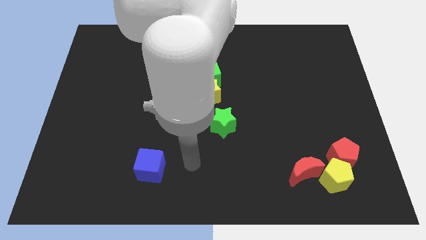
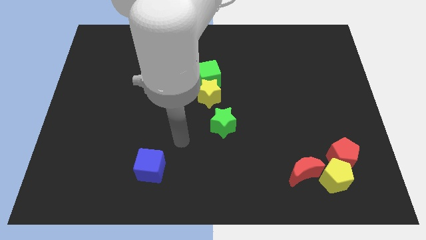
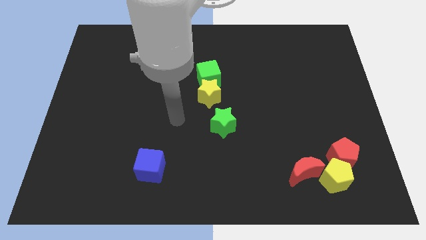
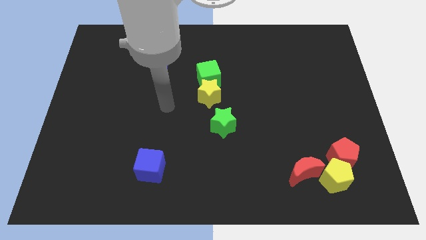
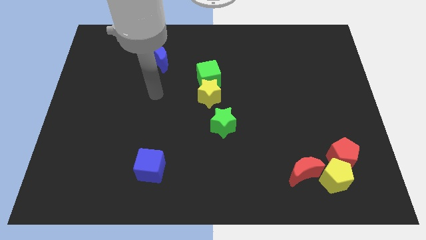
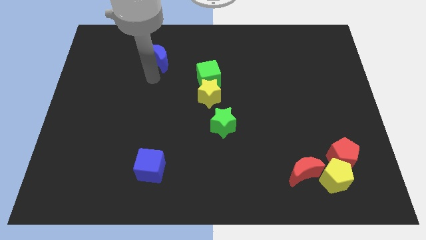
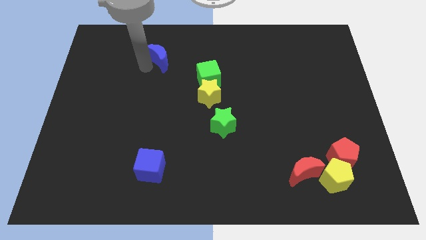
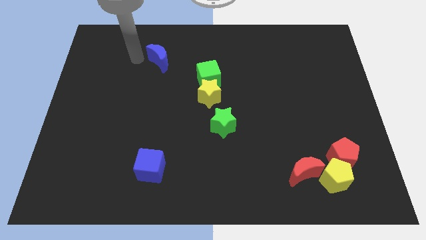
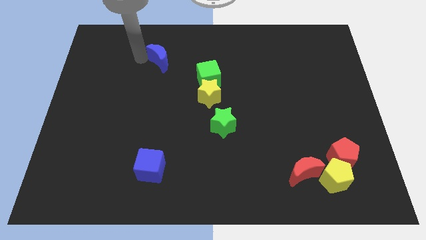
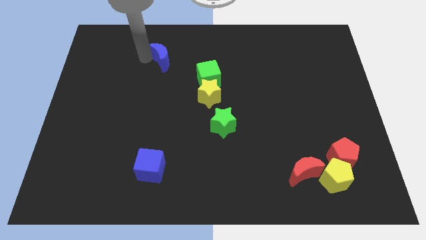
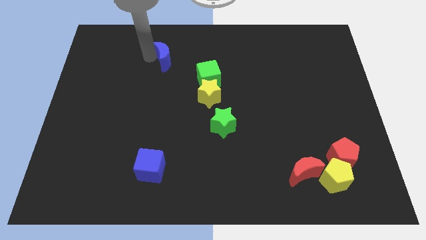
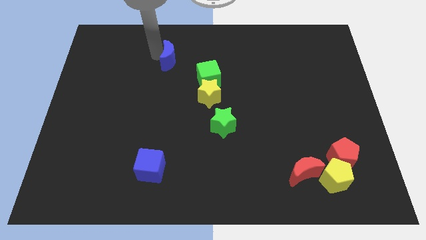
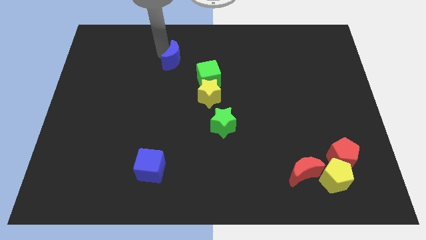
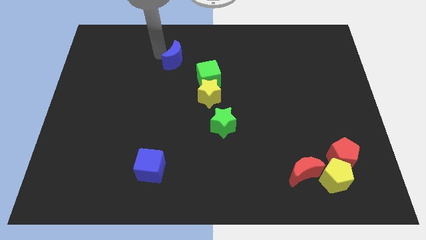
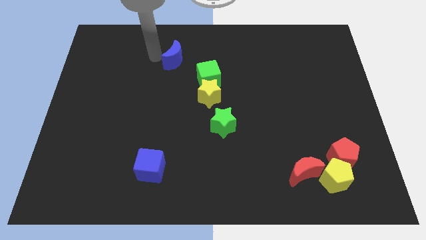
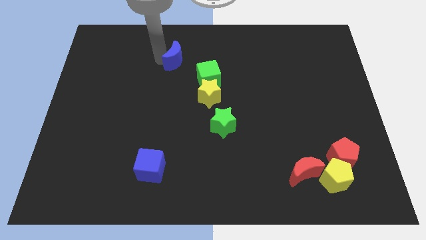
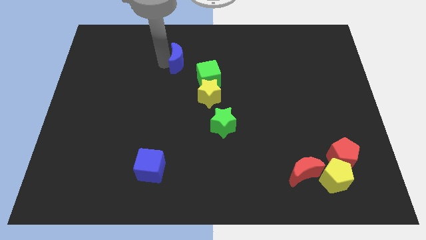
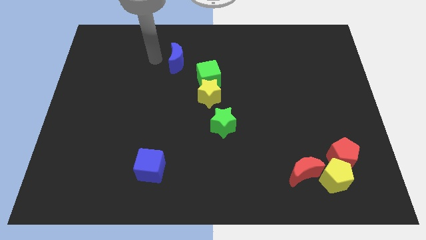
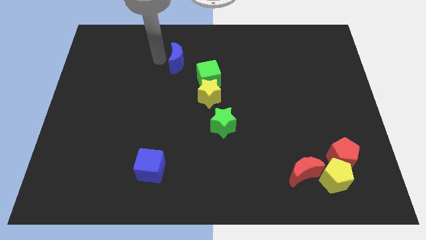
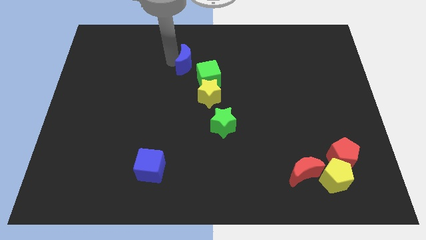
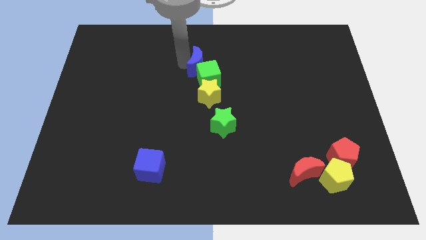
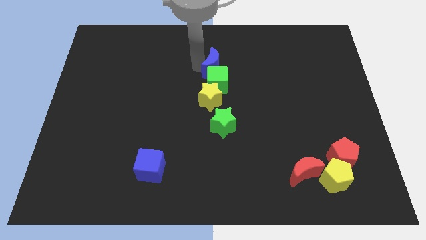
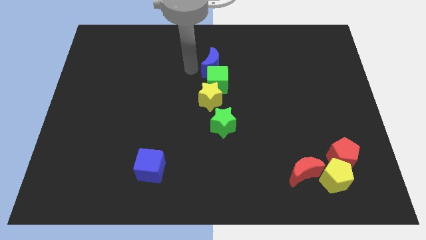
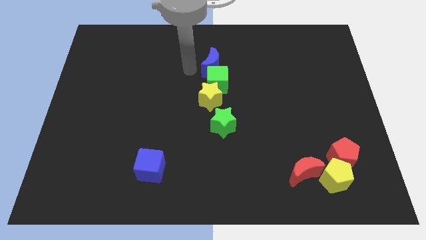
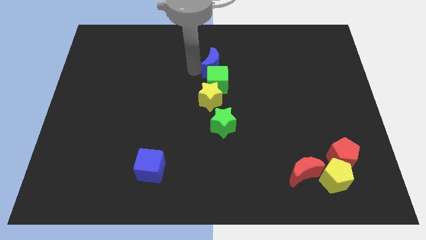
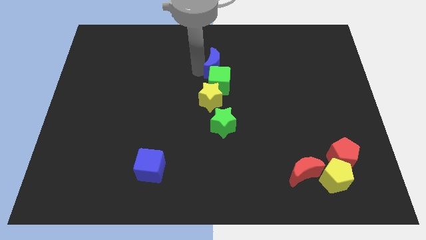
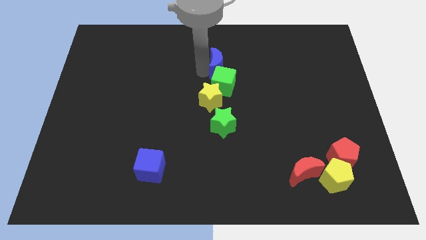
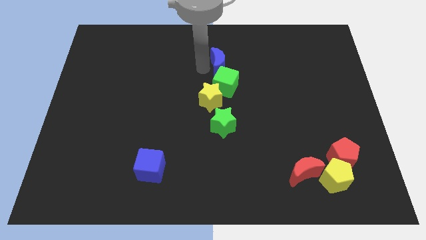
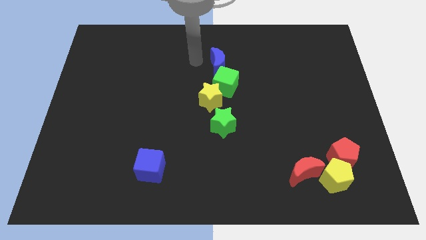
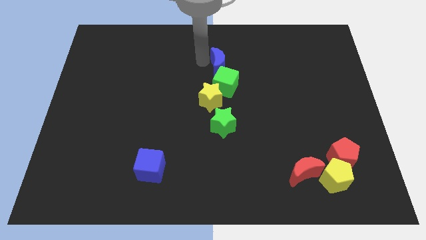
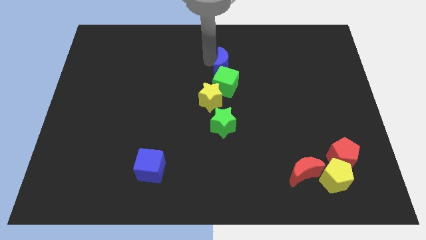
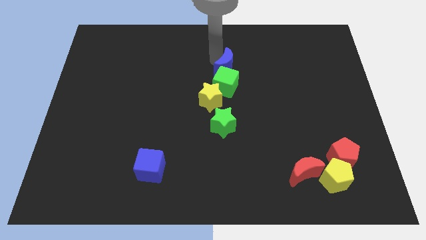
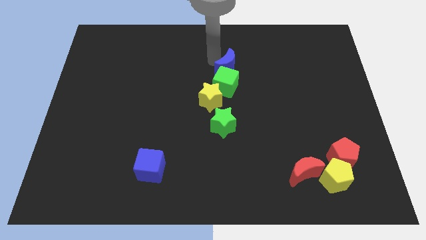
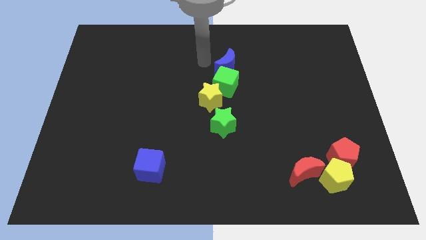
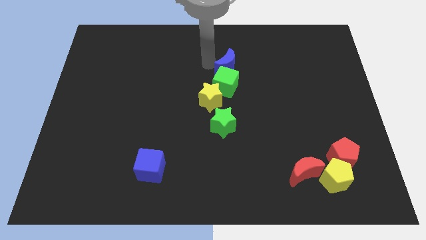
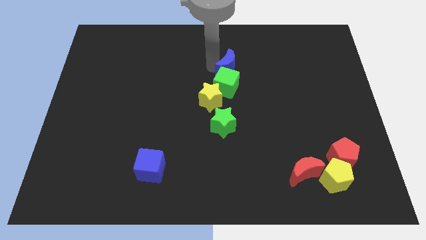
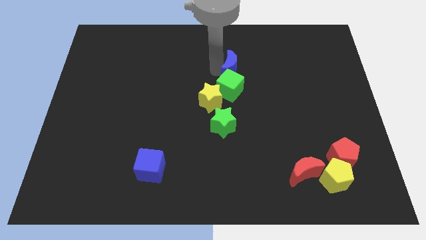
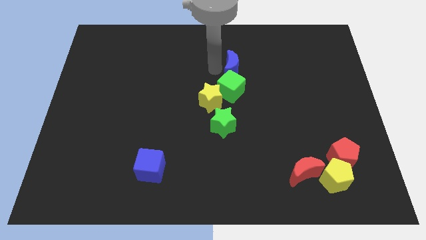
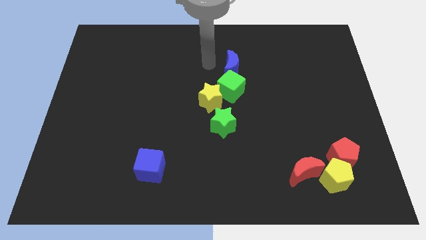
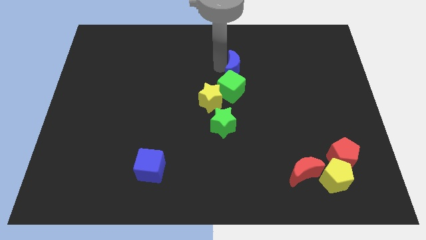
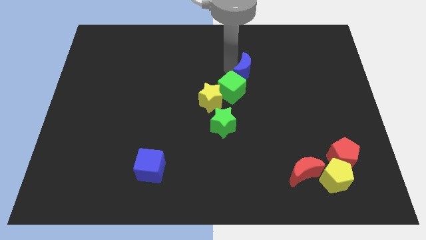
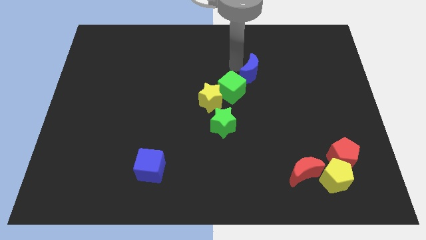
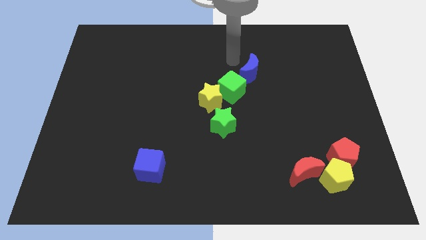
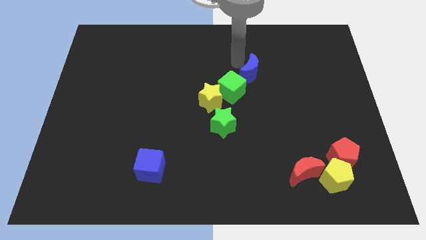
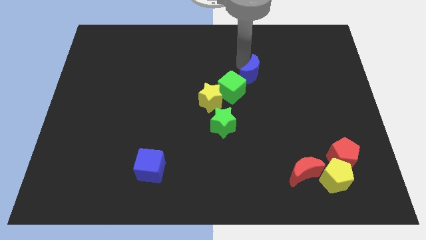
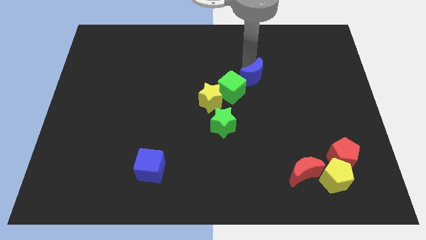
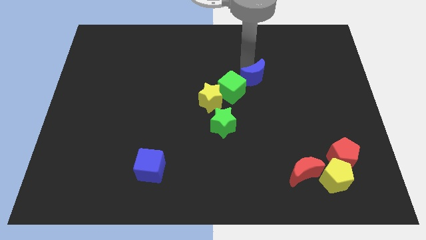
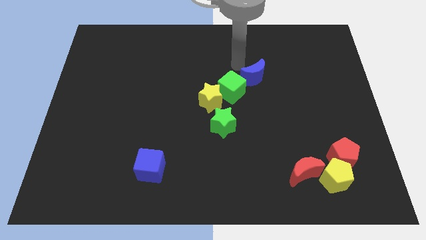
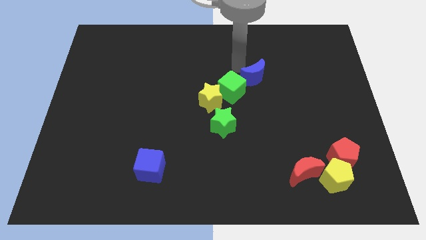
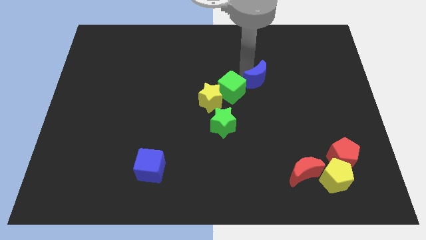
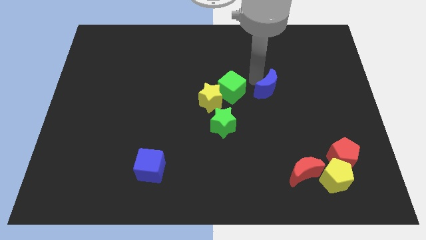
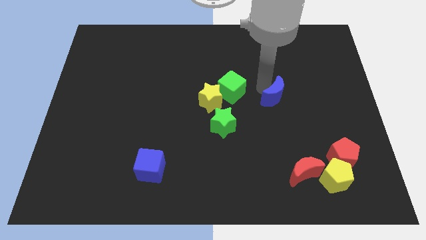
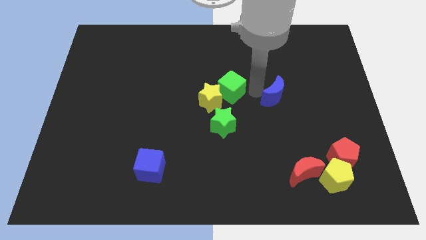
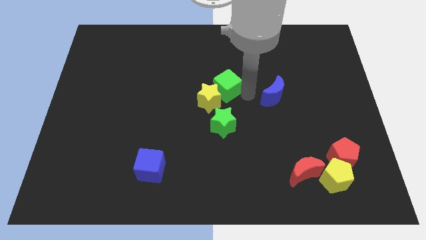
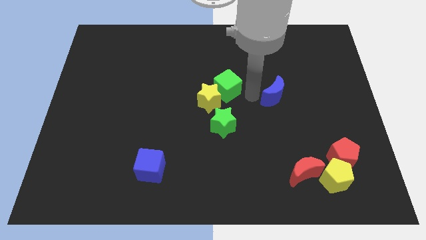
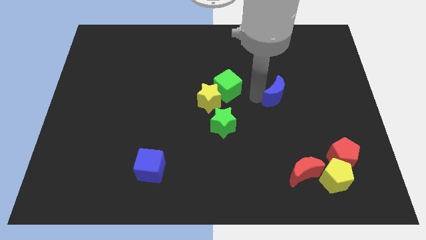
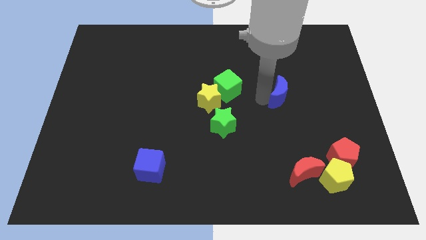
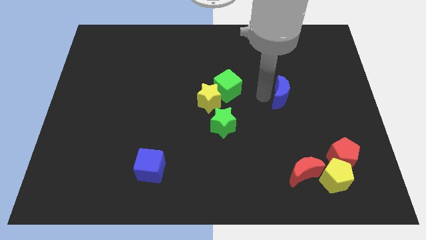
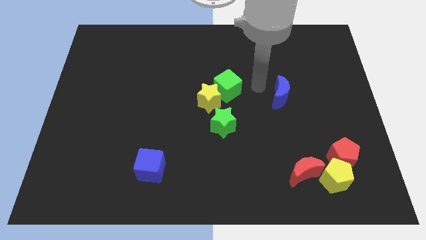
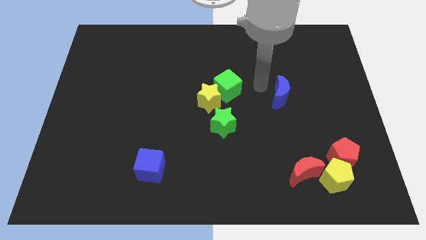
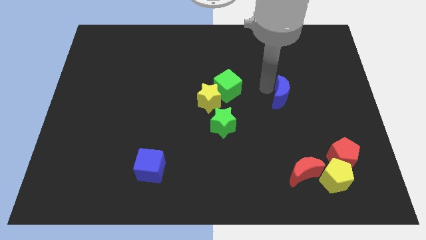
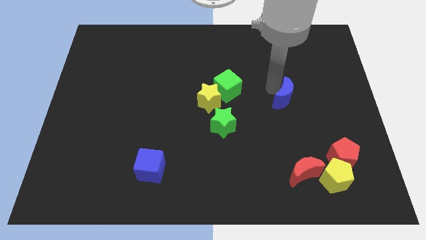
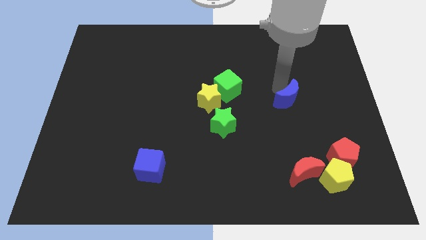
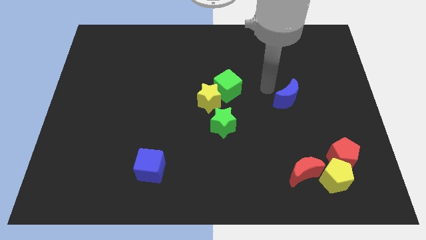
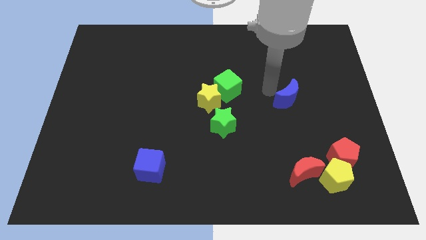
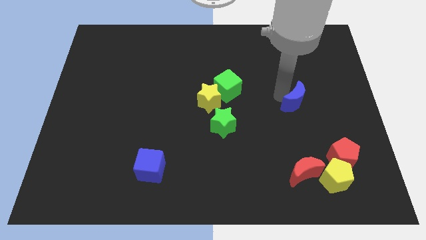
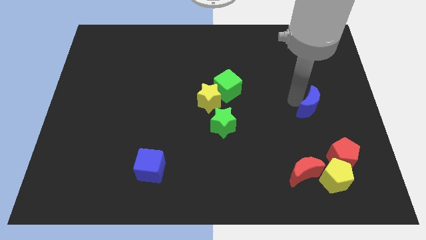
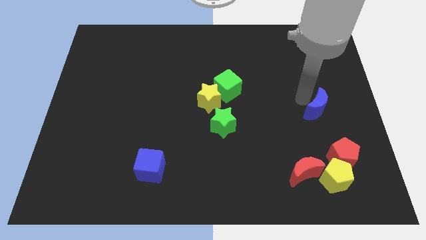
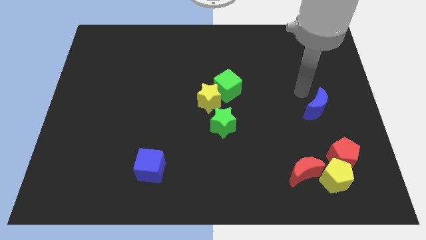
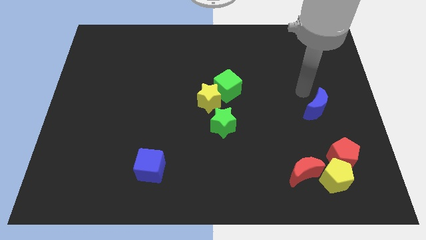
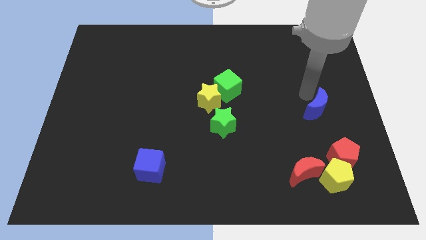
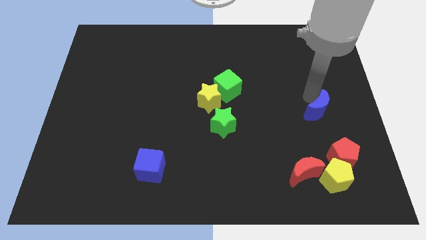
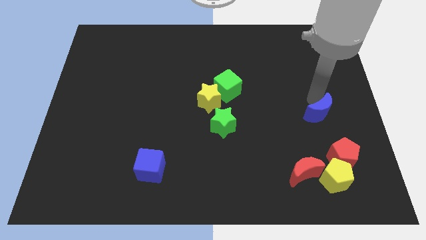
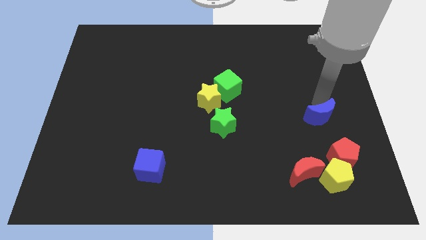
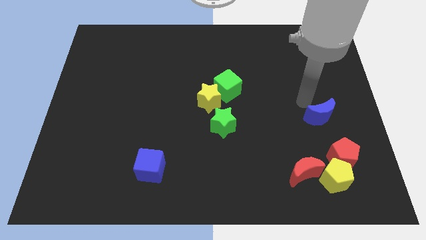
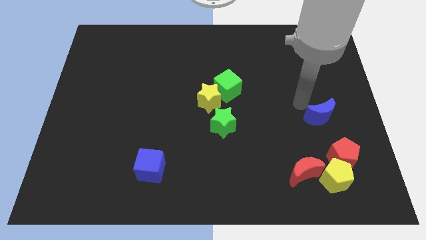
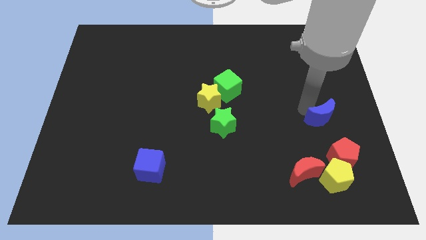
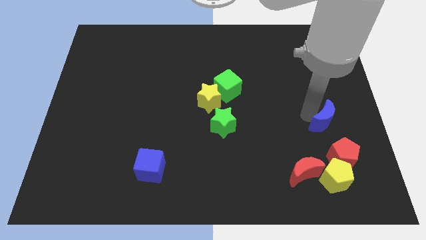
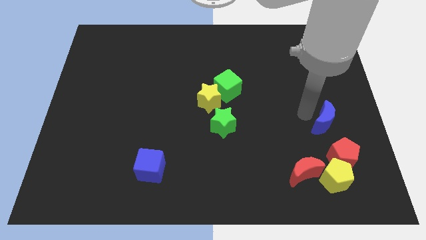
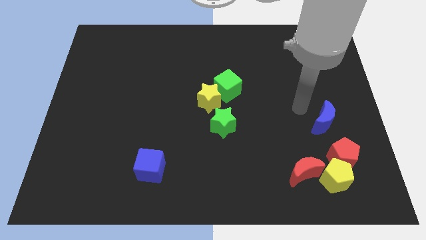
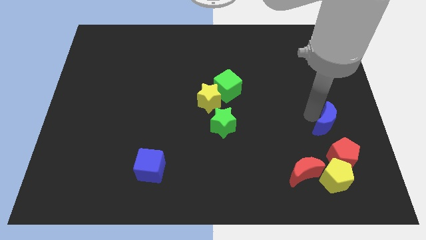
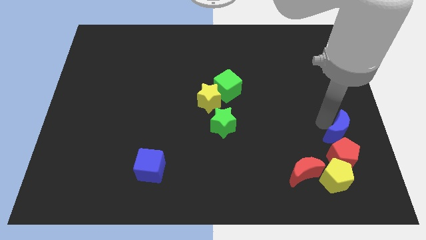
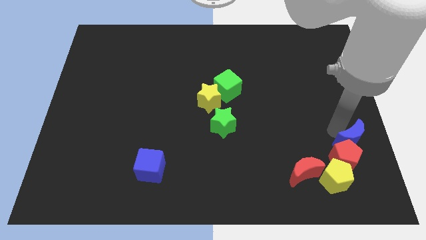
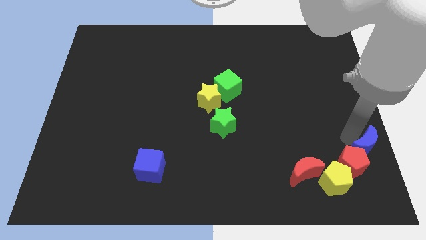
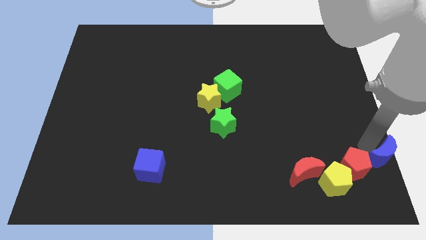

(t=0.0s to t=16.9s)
put the blue moon to the bottom right
